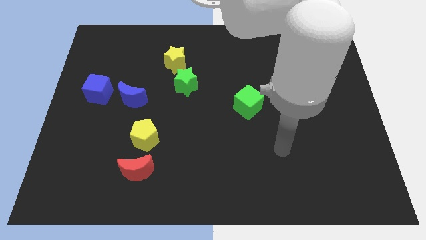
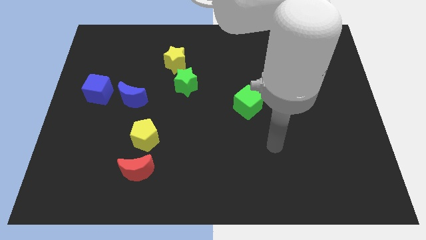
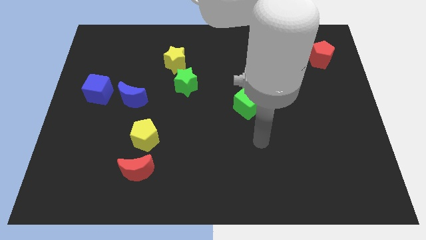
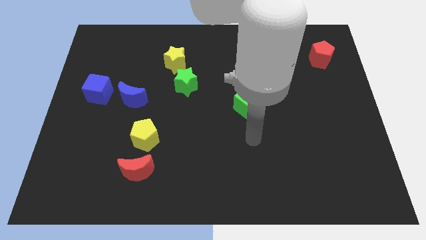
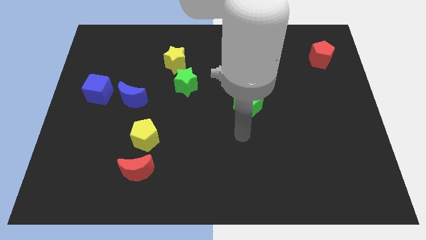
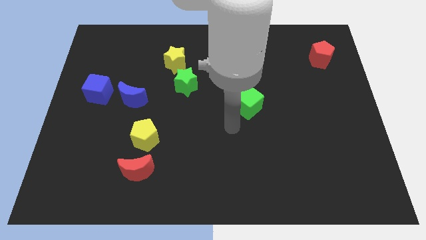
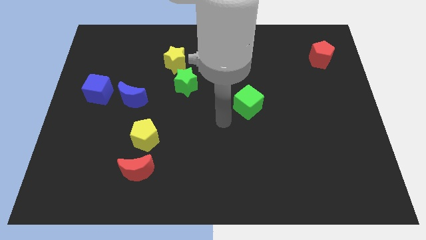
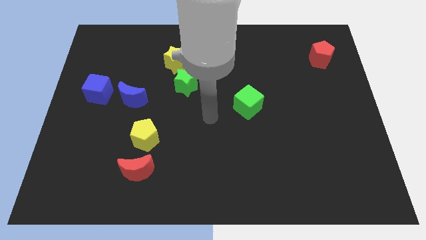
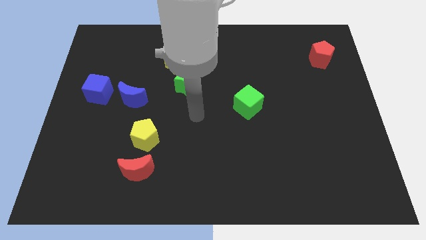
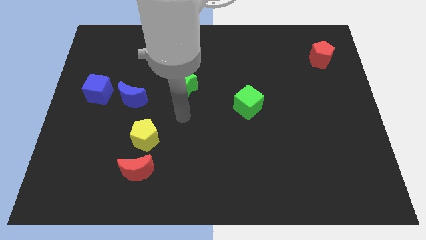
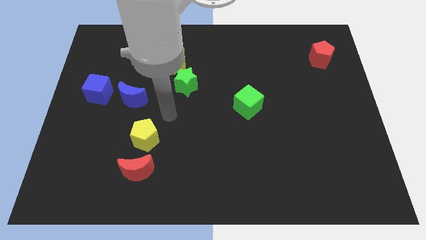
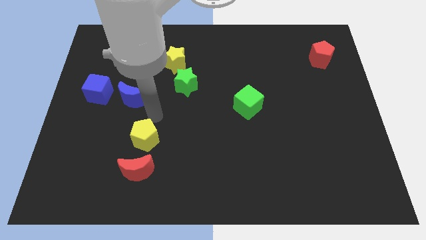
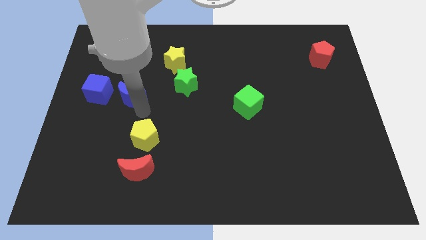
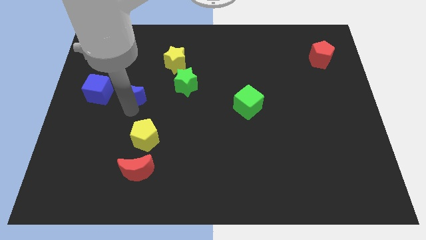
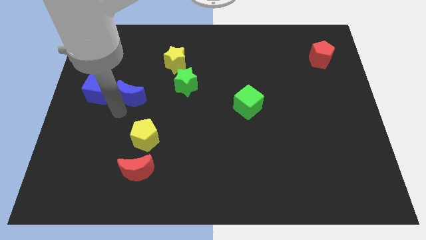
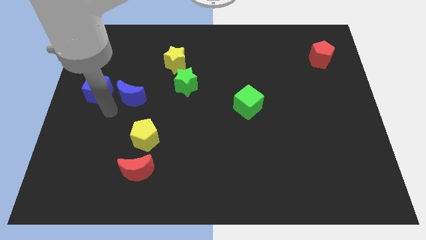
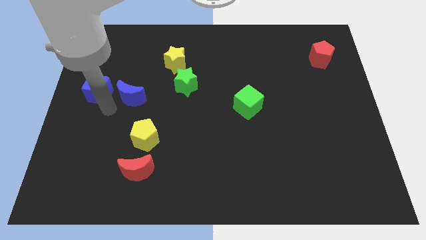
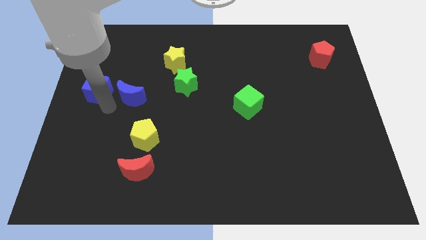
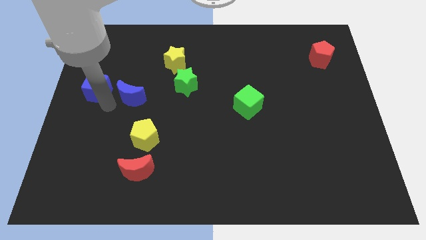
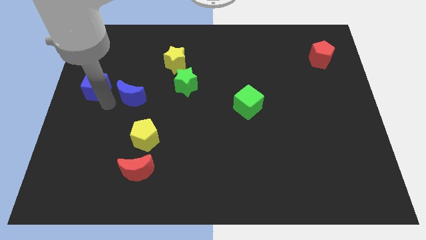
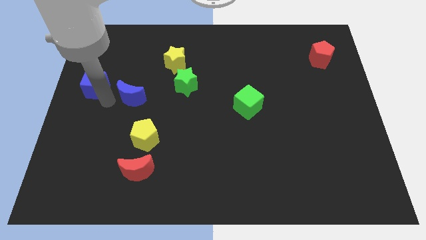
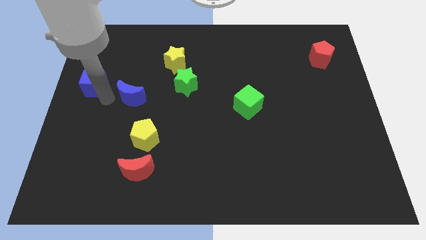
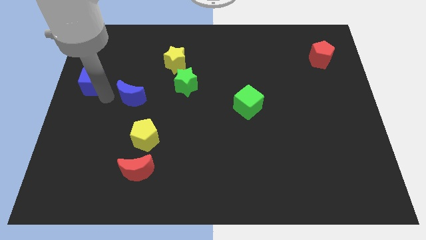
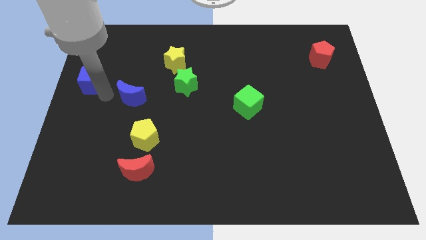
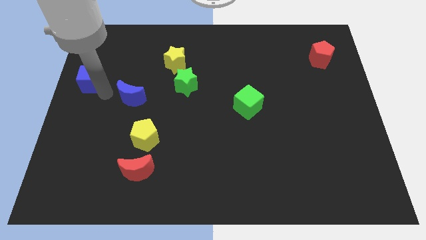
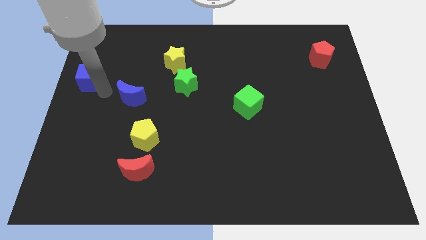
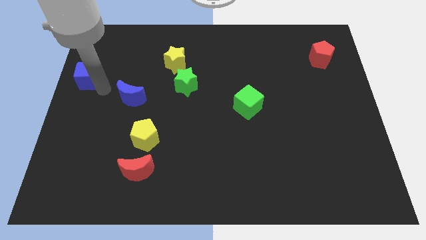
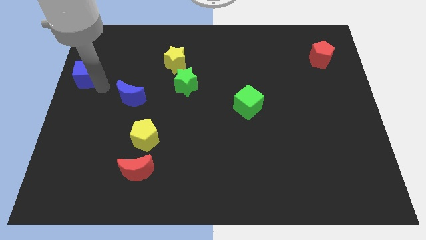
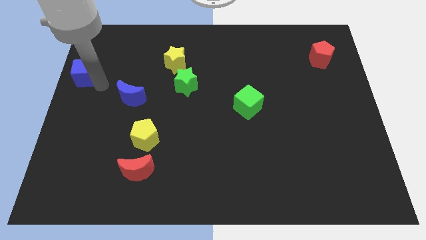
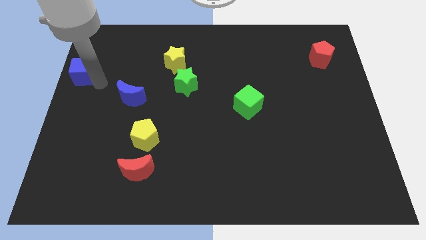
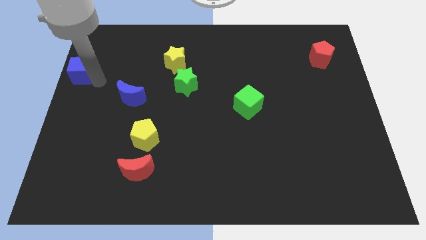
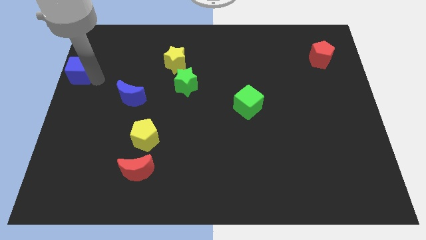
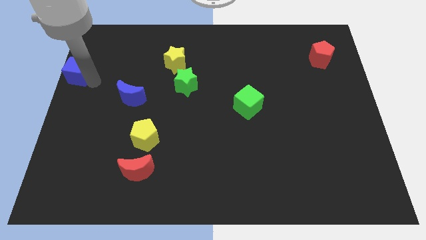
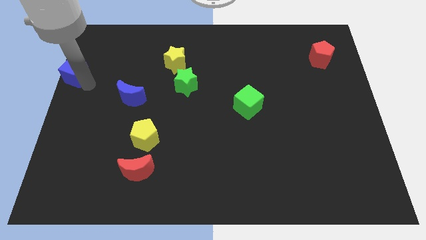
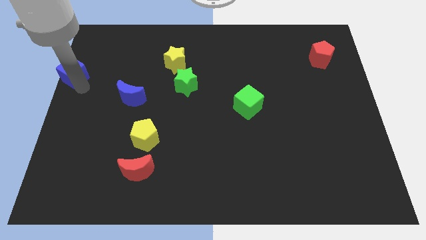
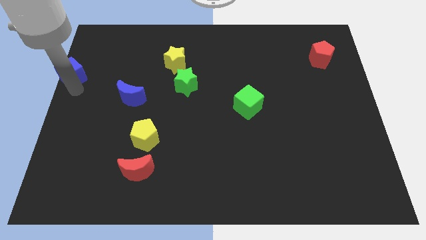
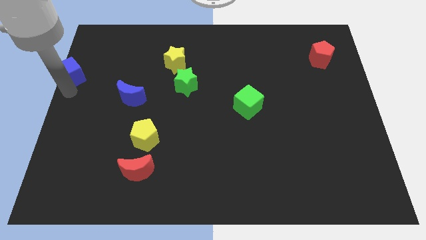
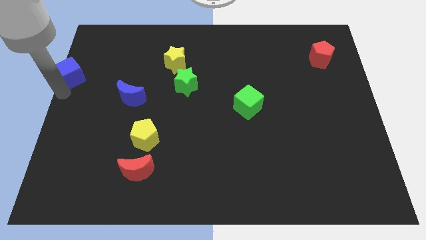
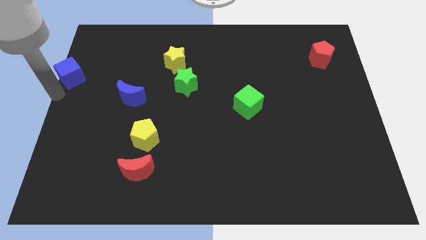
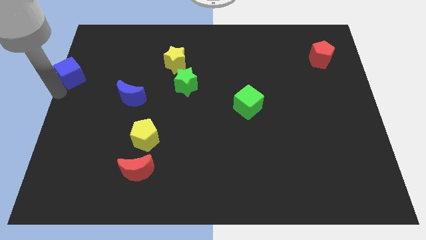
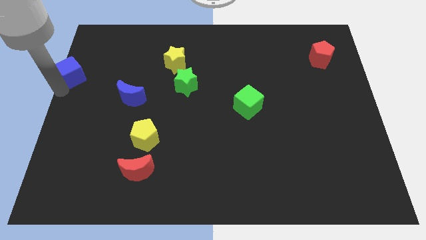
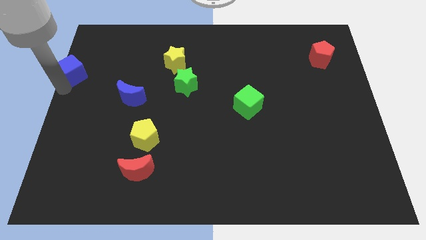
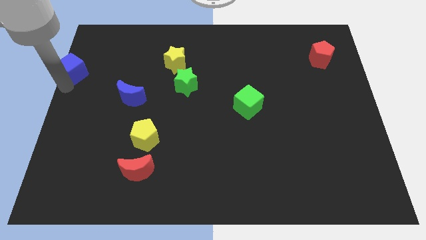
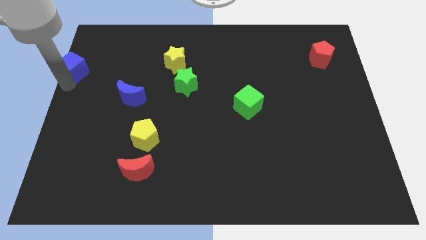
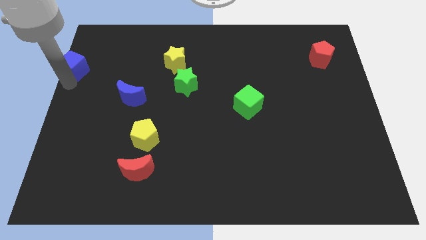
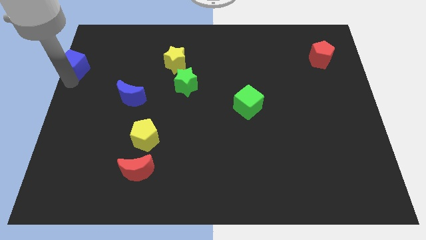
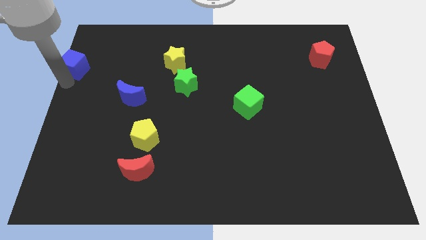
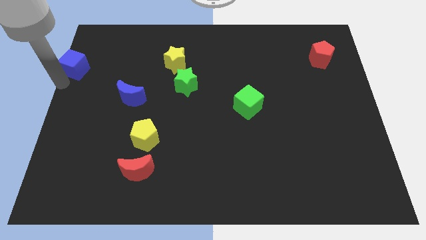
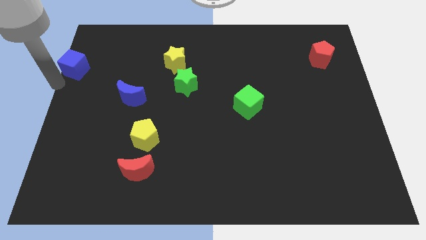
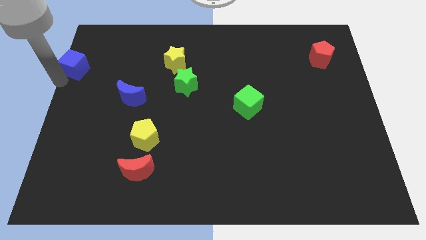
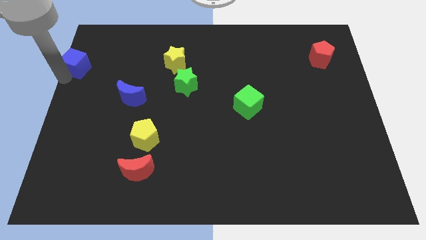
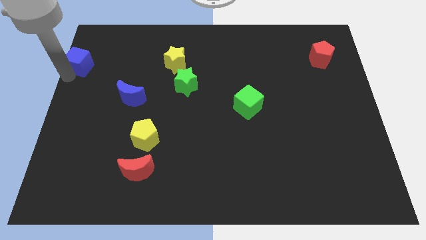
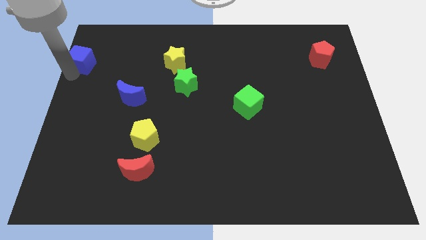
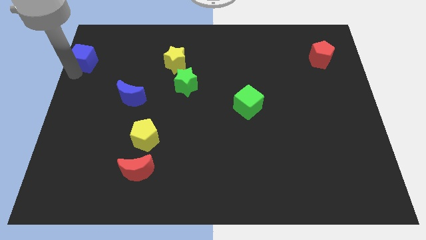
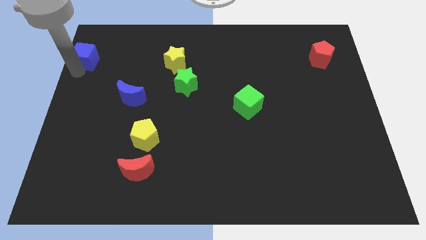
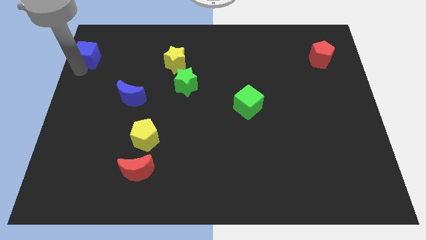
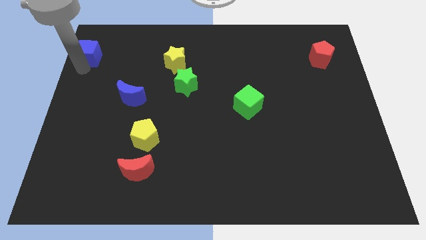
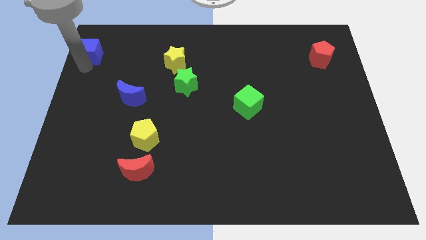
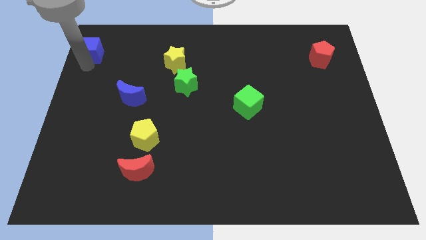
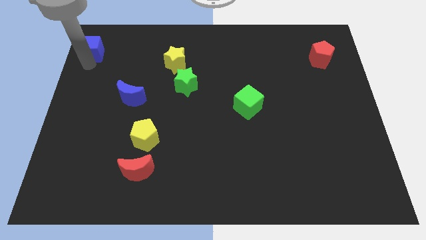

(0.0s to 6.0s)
move the blue cube to the top left of the board
